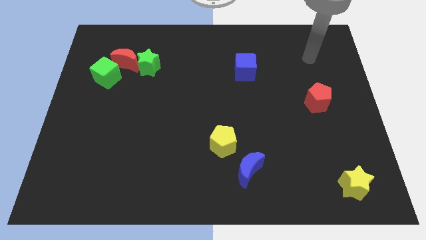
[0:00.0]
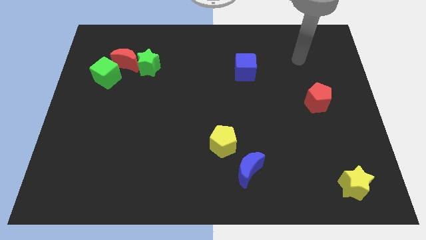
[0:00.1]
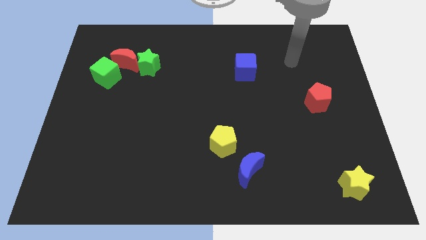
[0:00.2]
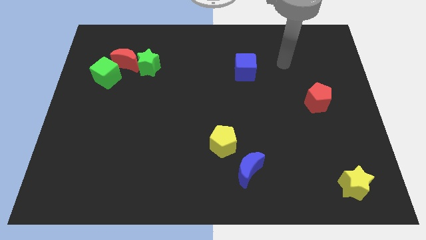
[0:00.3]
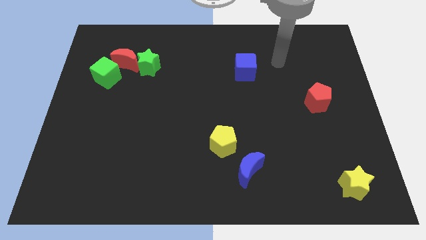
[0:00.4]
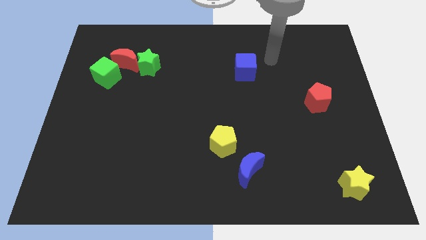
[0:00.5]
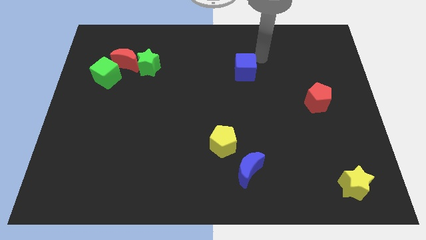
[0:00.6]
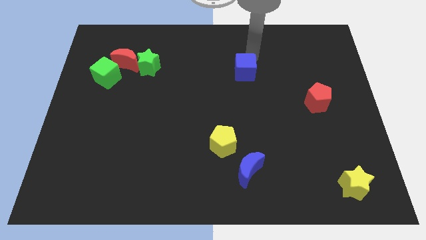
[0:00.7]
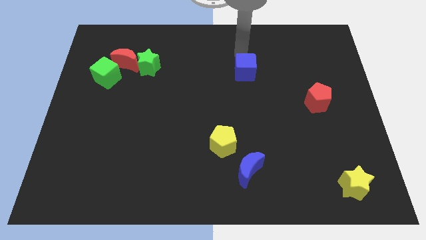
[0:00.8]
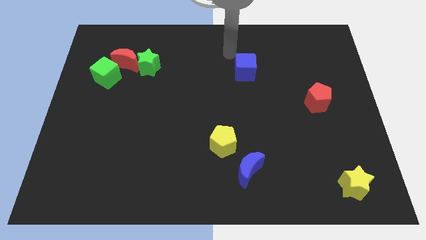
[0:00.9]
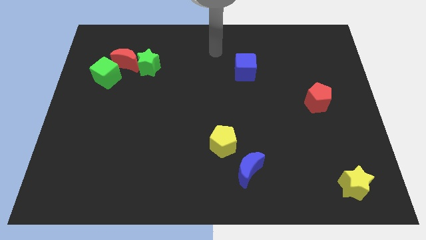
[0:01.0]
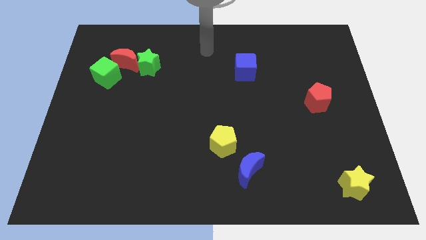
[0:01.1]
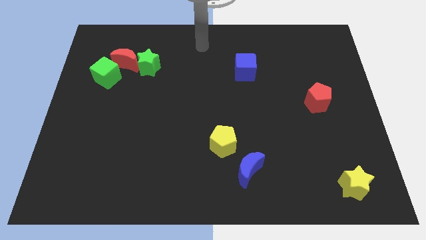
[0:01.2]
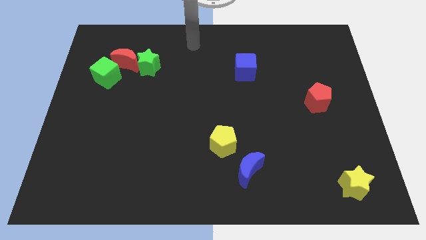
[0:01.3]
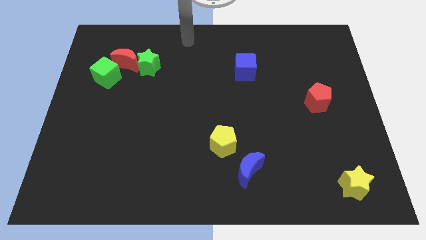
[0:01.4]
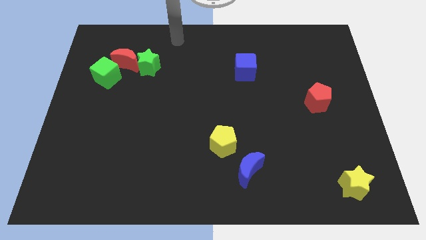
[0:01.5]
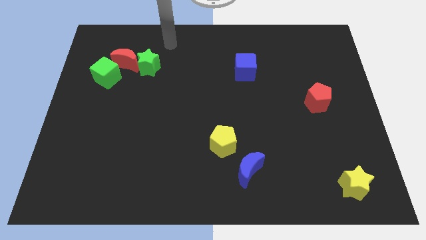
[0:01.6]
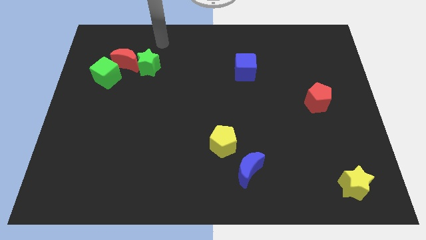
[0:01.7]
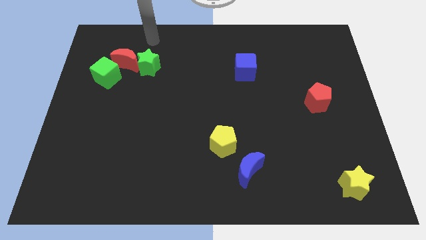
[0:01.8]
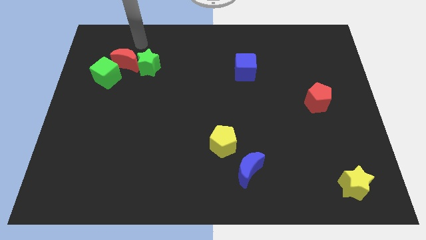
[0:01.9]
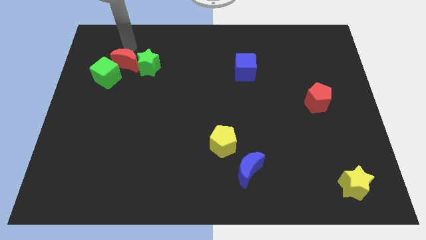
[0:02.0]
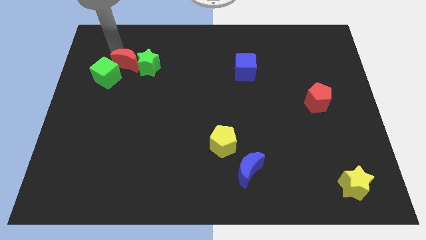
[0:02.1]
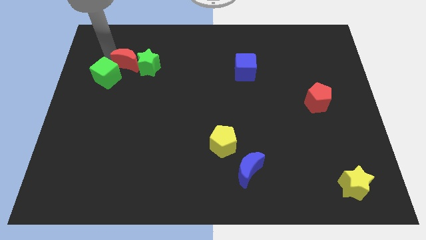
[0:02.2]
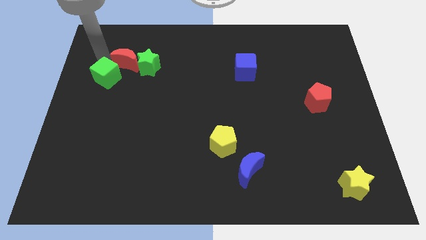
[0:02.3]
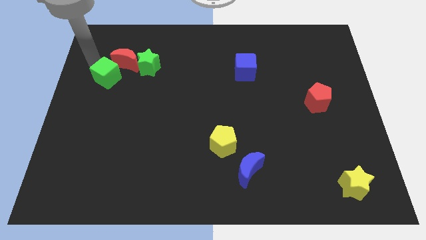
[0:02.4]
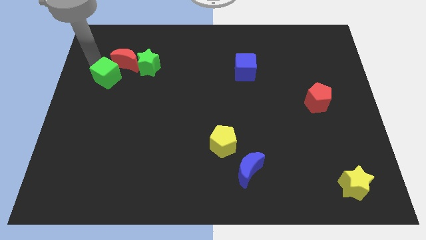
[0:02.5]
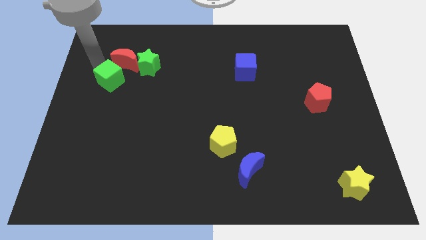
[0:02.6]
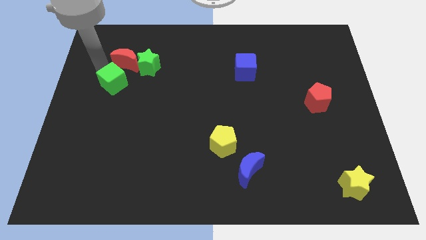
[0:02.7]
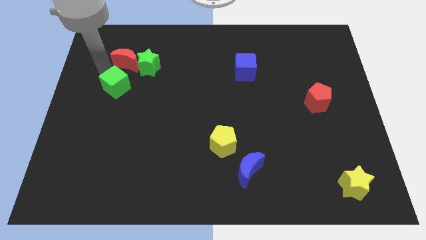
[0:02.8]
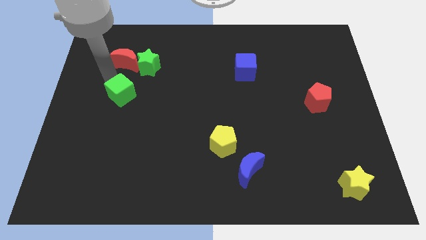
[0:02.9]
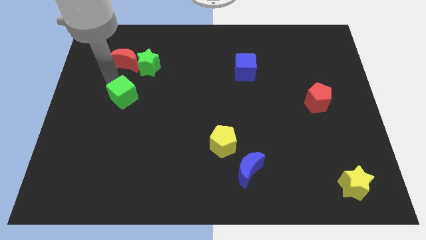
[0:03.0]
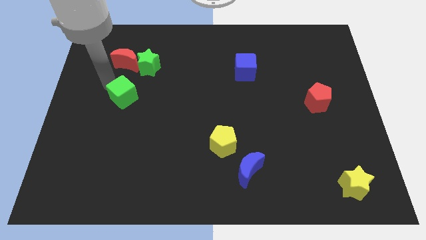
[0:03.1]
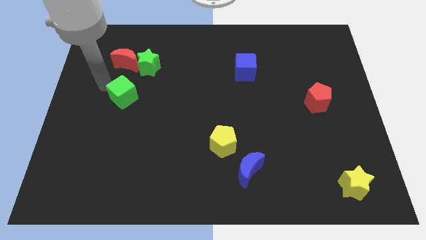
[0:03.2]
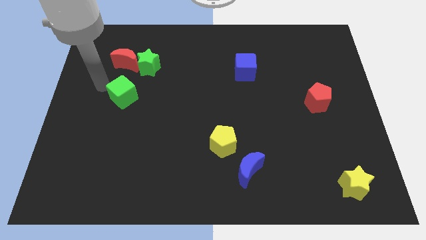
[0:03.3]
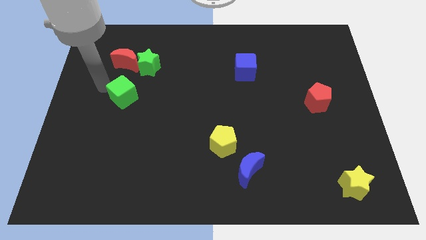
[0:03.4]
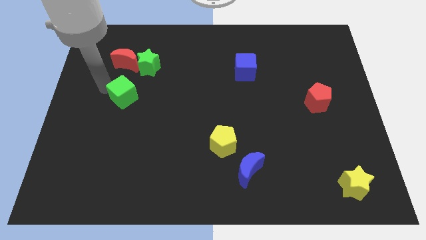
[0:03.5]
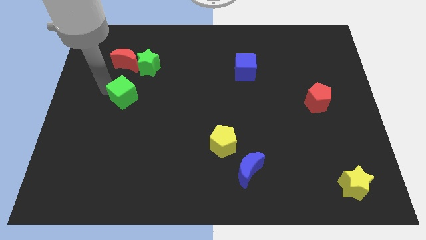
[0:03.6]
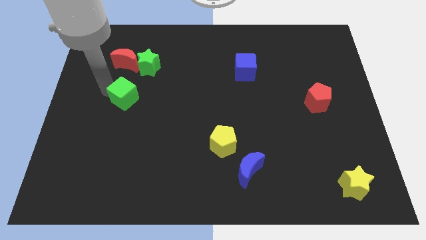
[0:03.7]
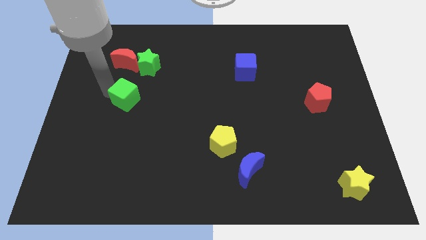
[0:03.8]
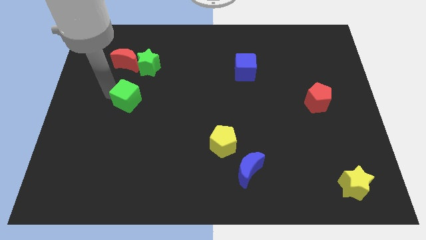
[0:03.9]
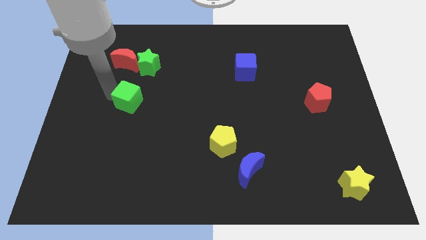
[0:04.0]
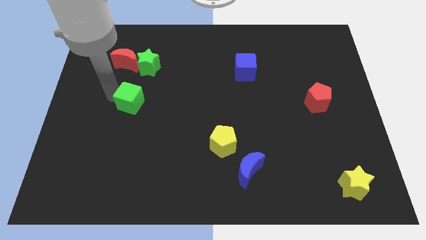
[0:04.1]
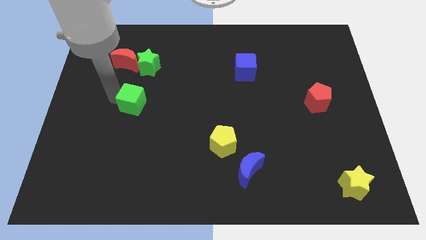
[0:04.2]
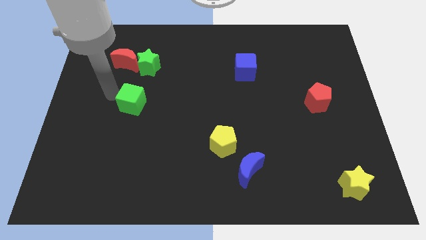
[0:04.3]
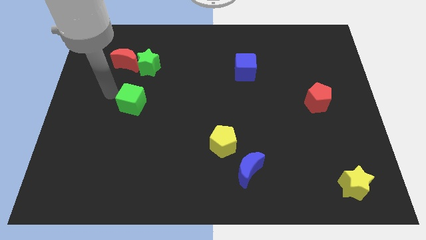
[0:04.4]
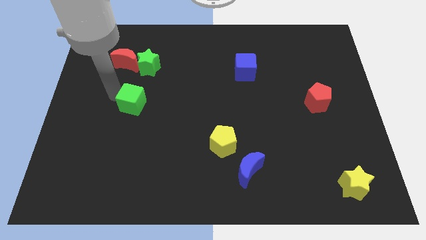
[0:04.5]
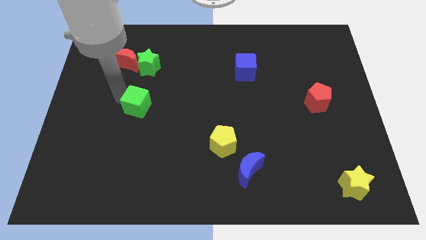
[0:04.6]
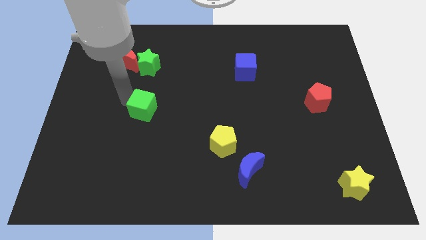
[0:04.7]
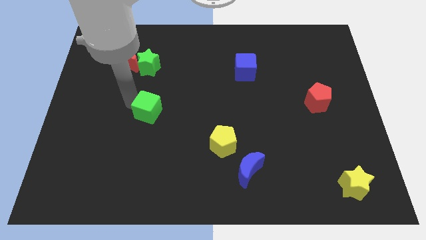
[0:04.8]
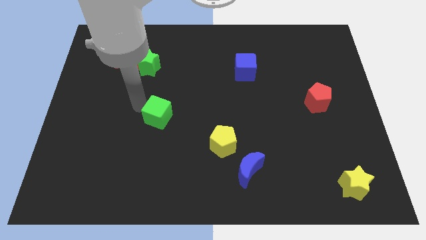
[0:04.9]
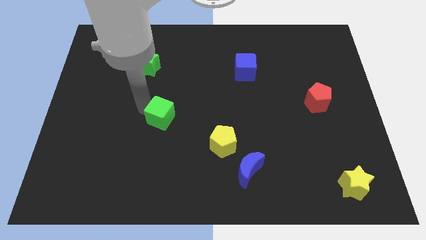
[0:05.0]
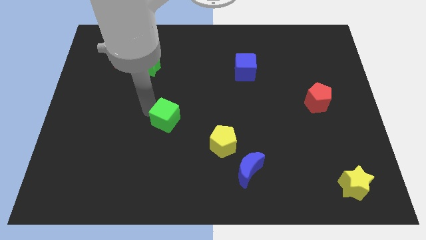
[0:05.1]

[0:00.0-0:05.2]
push the green cube diagonally downwards and right

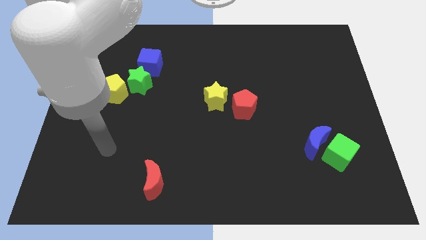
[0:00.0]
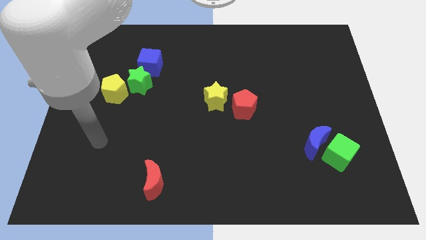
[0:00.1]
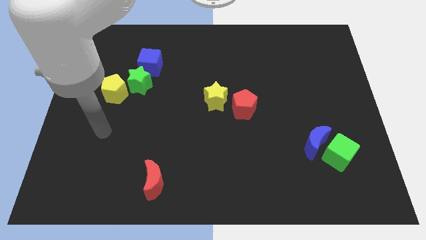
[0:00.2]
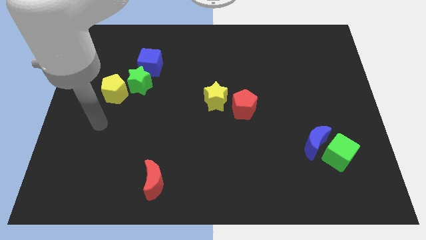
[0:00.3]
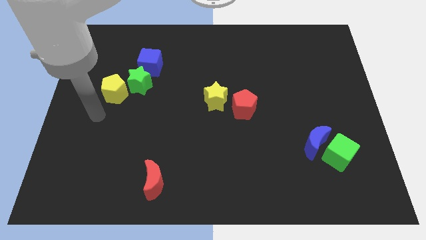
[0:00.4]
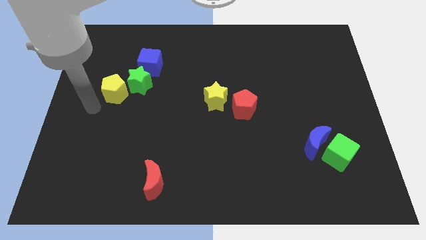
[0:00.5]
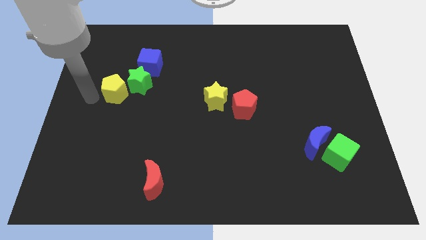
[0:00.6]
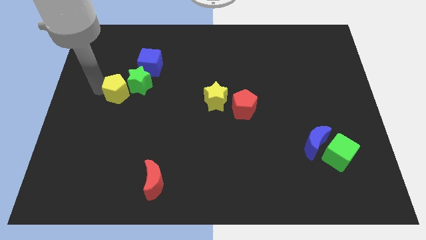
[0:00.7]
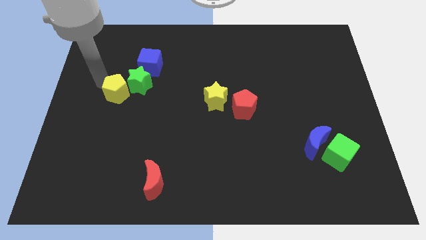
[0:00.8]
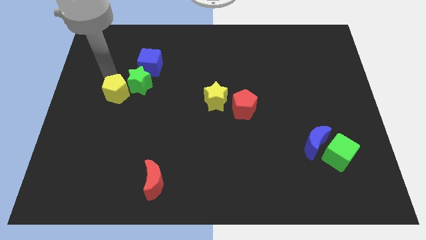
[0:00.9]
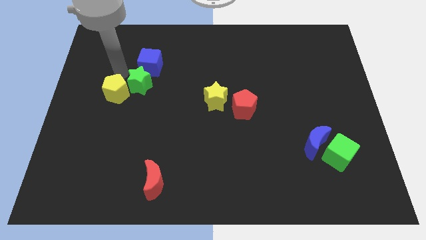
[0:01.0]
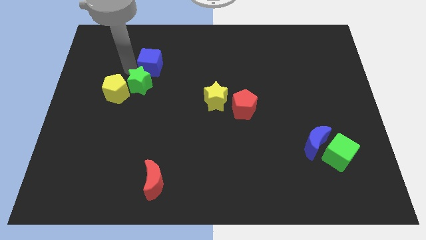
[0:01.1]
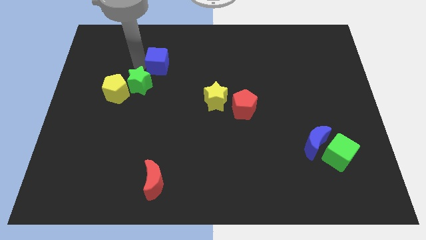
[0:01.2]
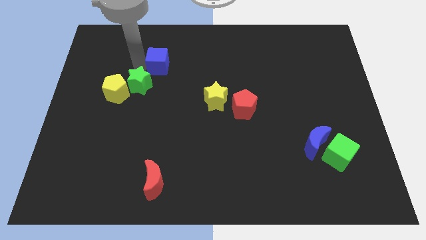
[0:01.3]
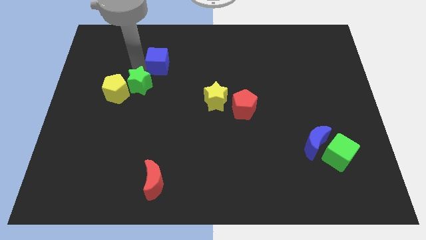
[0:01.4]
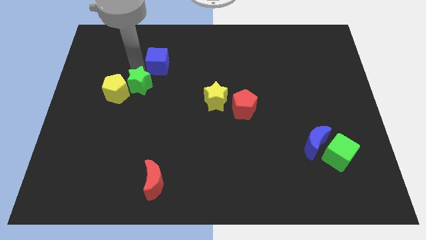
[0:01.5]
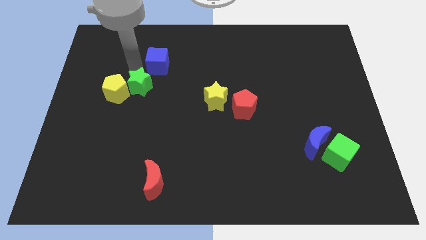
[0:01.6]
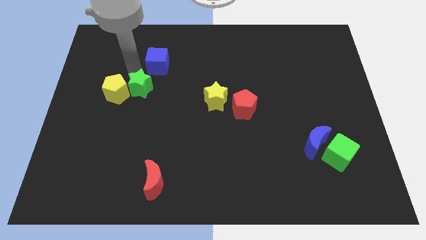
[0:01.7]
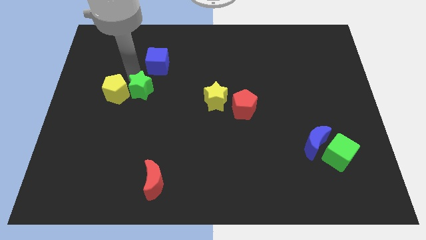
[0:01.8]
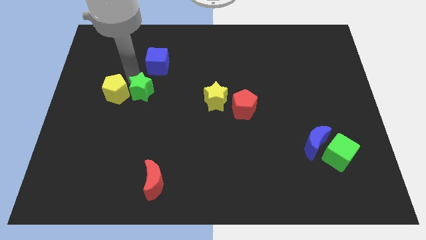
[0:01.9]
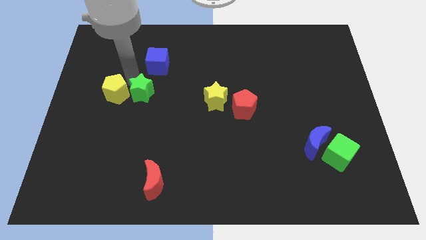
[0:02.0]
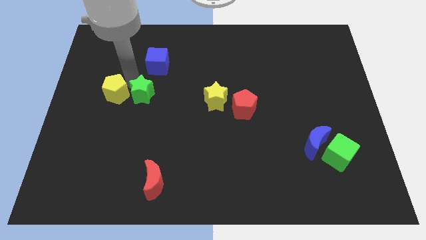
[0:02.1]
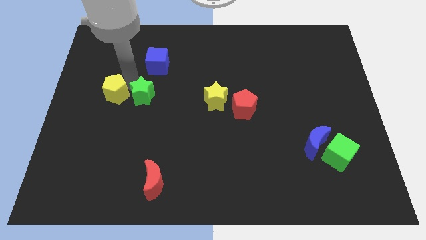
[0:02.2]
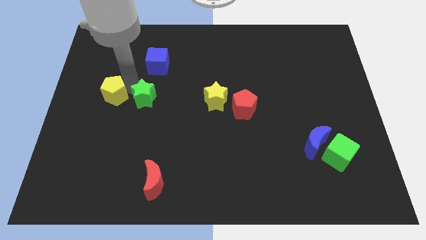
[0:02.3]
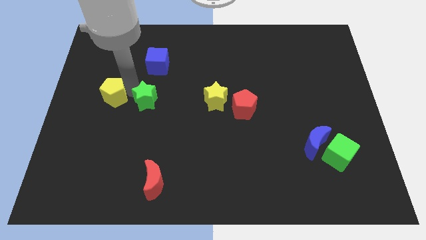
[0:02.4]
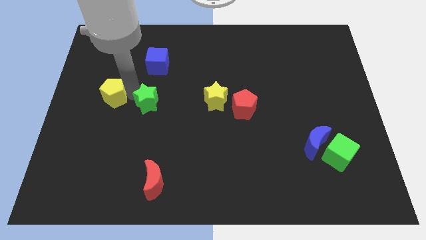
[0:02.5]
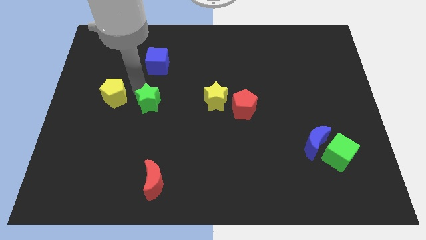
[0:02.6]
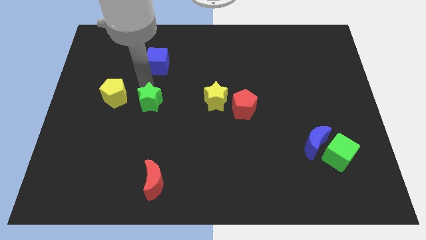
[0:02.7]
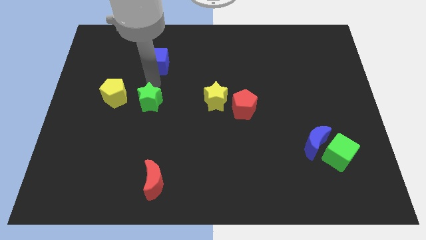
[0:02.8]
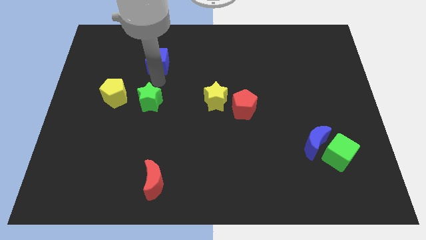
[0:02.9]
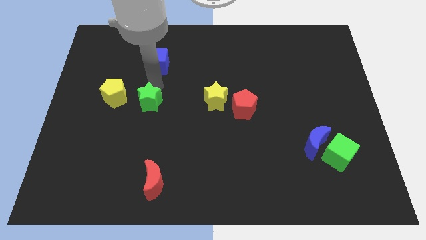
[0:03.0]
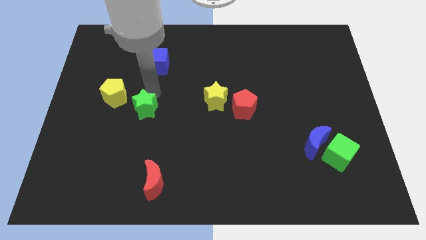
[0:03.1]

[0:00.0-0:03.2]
slightly push the green star down

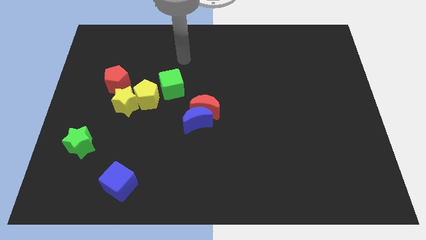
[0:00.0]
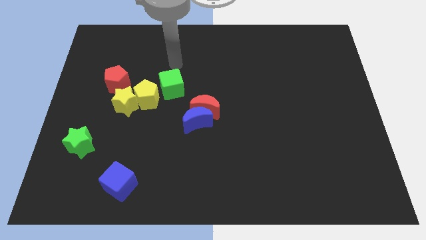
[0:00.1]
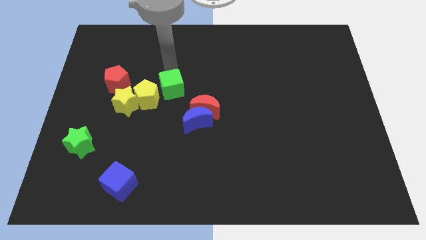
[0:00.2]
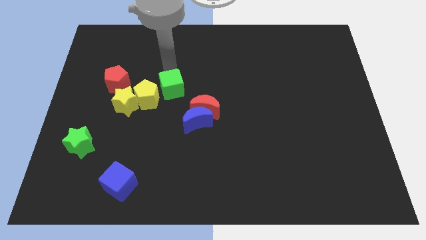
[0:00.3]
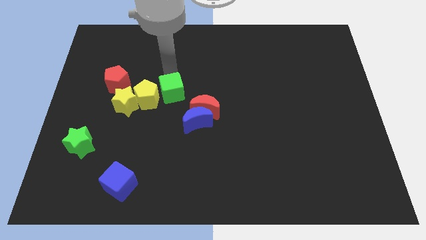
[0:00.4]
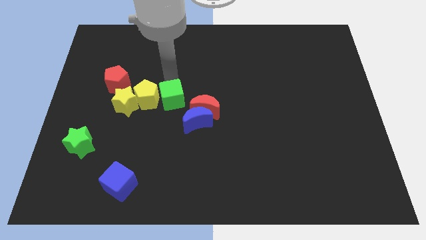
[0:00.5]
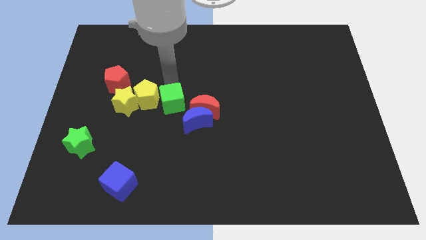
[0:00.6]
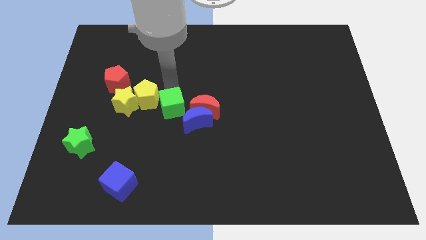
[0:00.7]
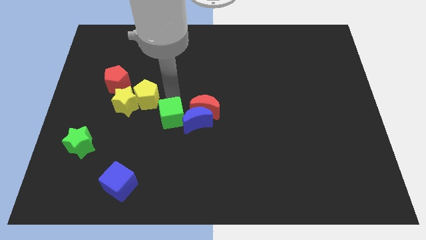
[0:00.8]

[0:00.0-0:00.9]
slightly move the green cube down
